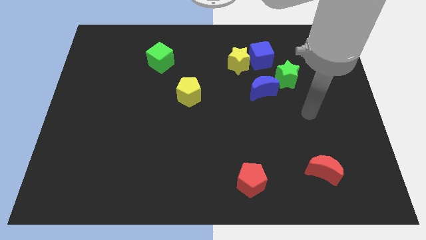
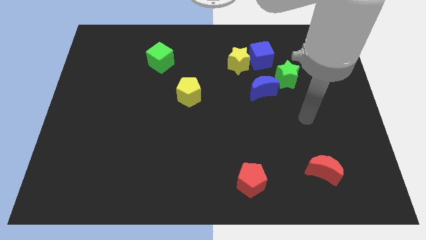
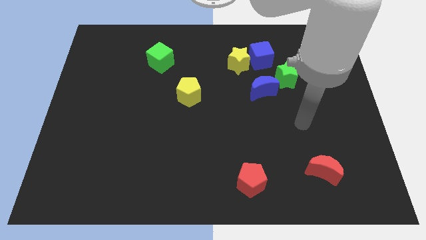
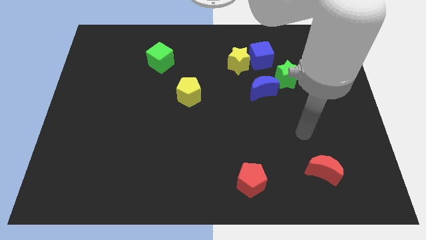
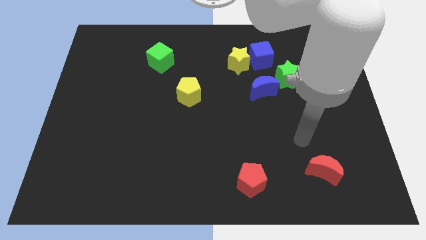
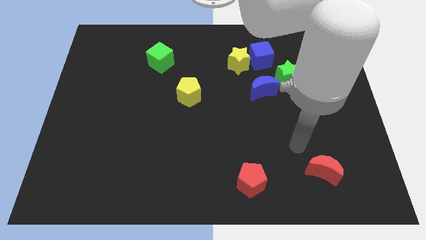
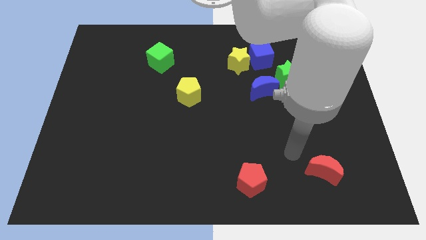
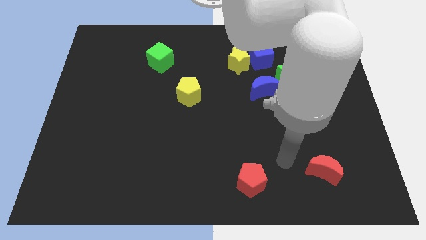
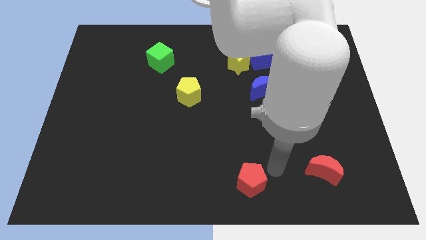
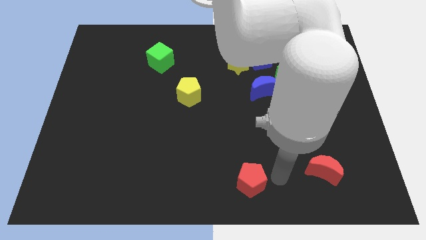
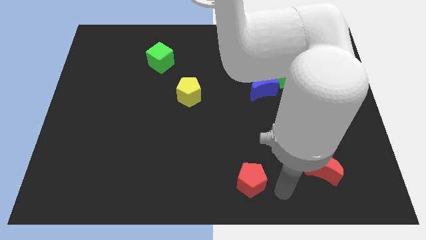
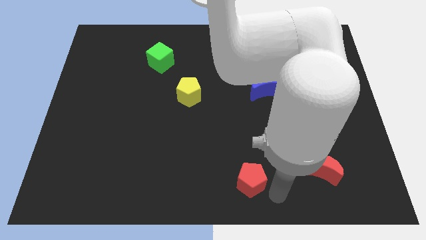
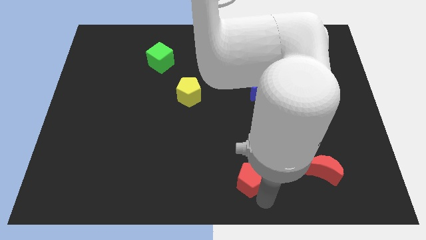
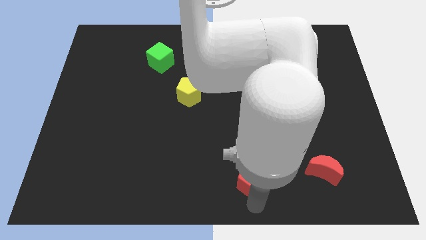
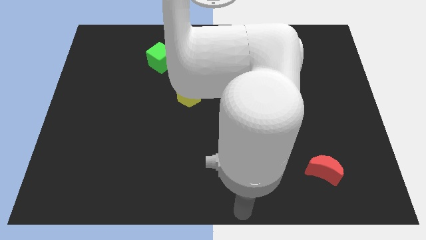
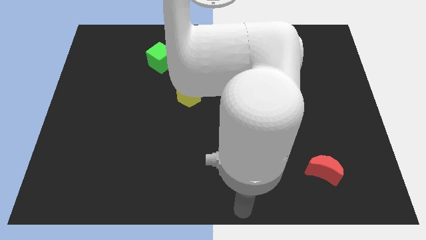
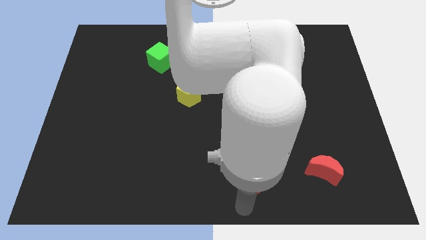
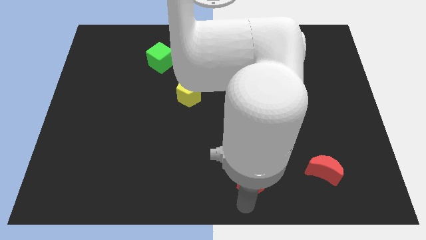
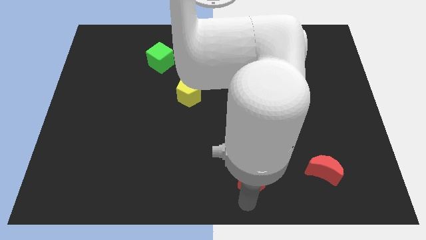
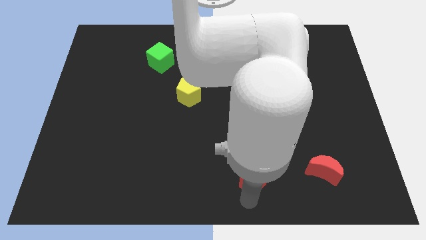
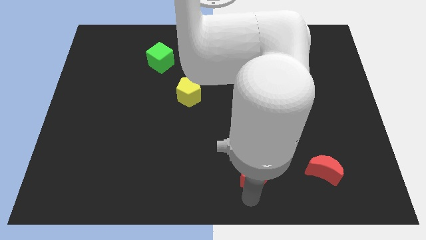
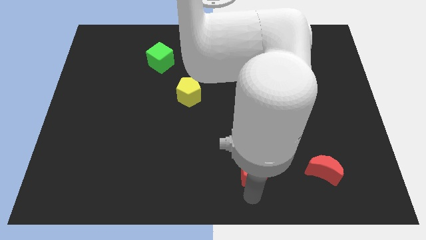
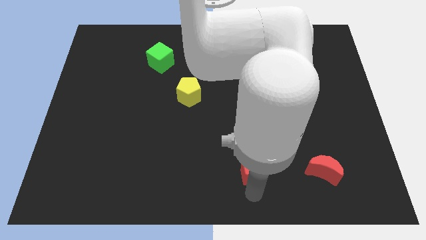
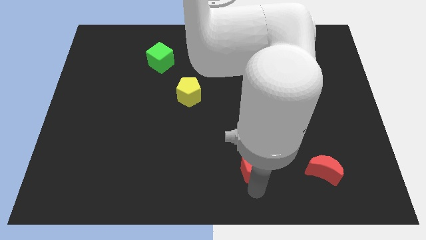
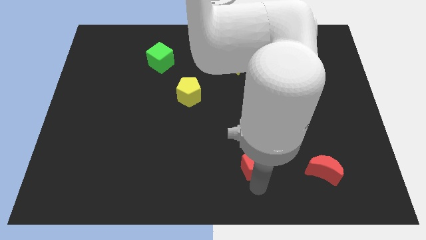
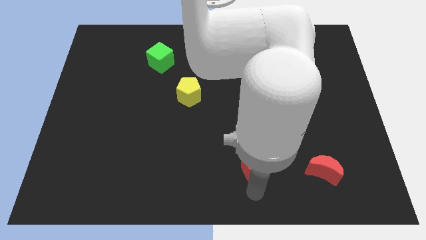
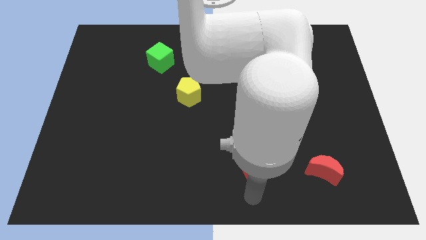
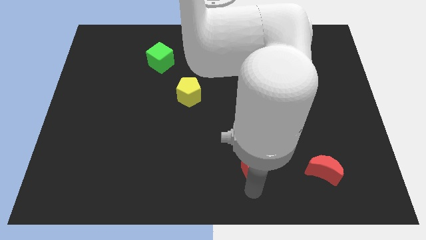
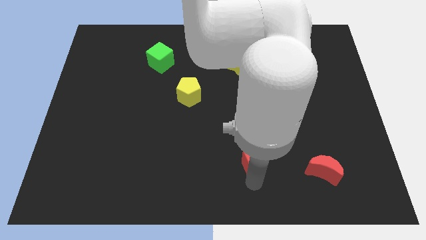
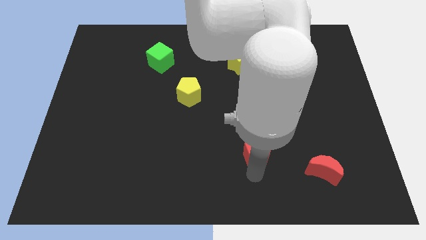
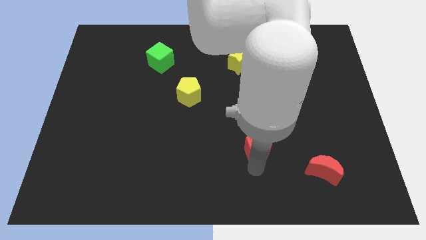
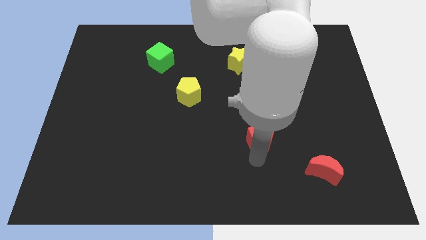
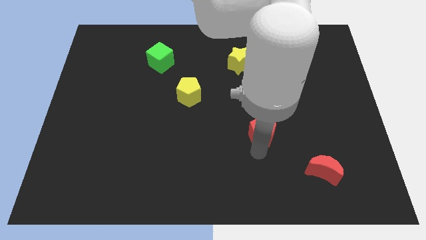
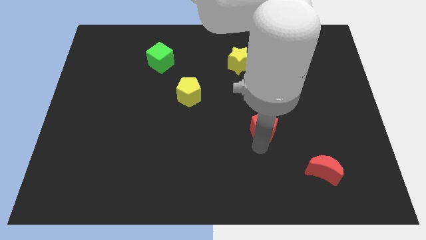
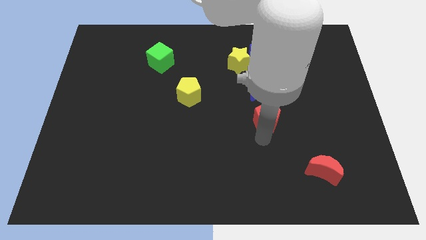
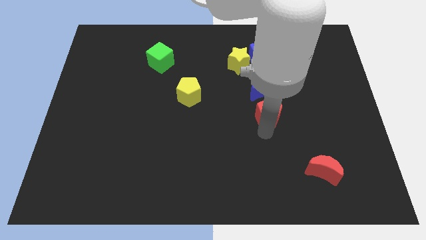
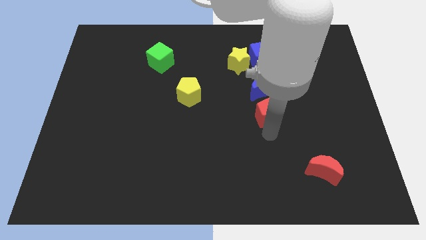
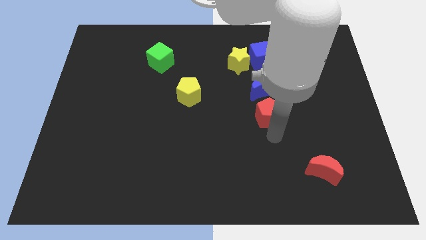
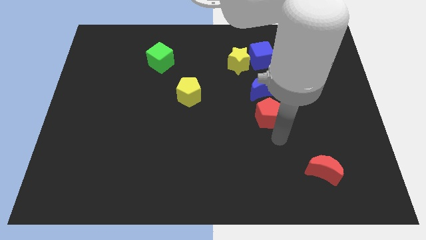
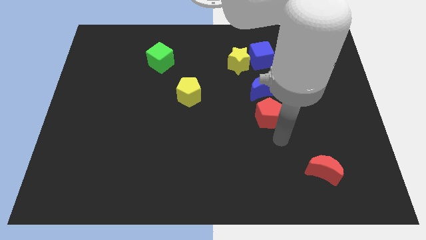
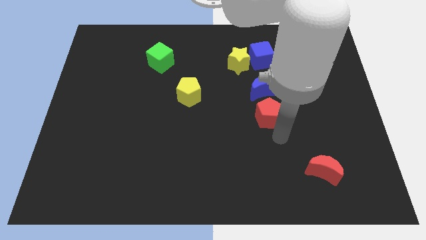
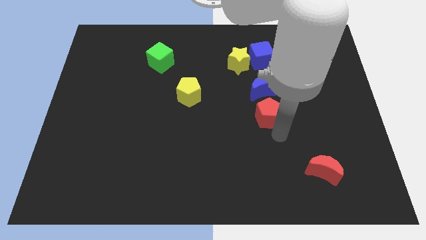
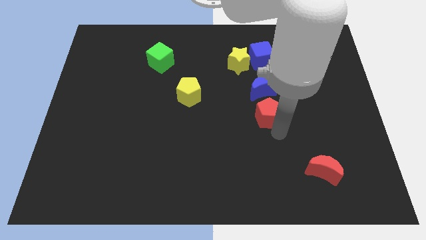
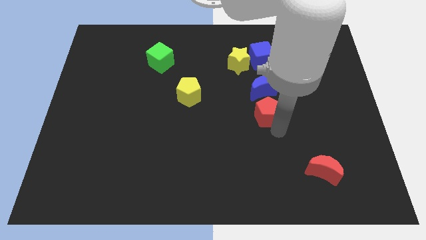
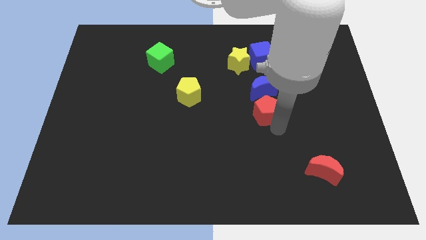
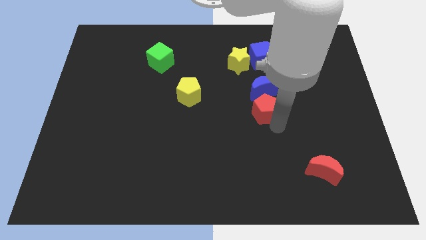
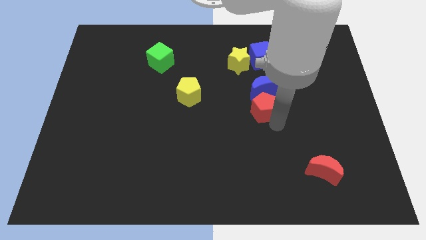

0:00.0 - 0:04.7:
push the red pentagon to the bottom left side of the green star

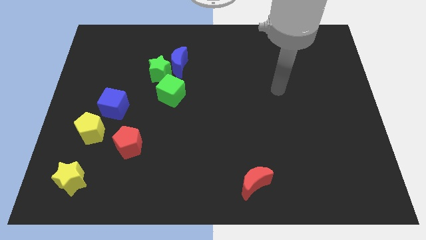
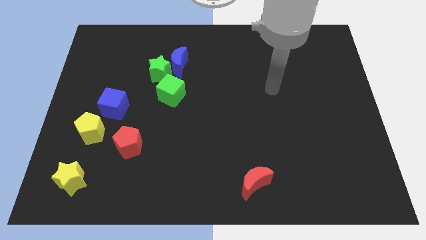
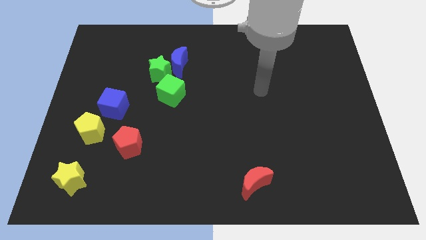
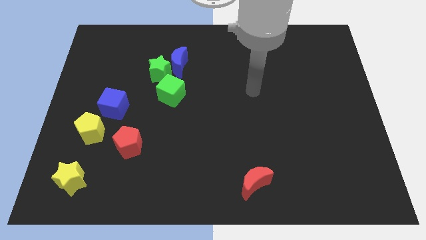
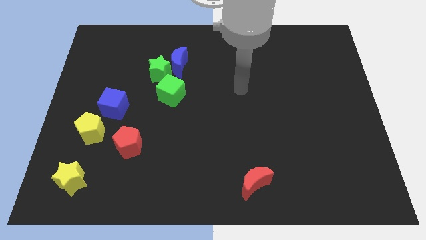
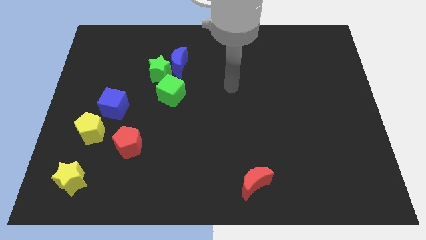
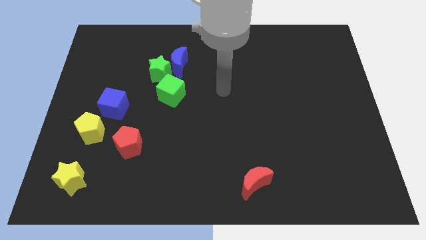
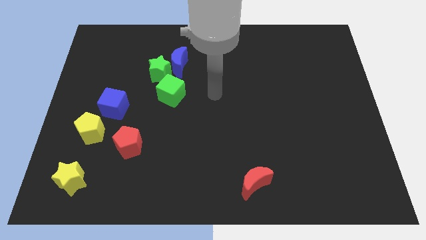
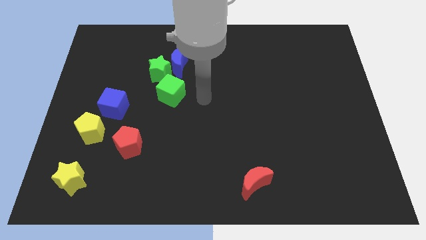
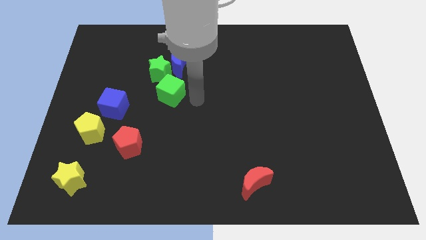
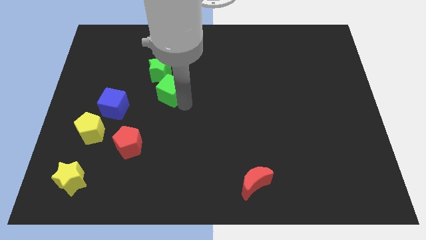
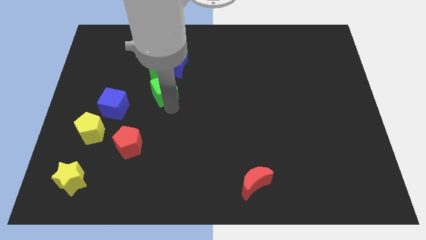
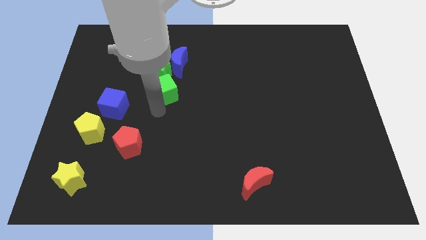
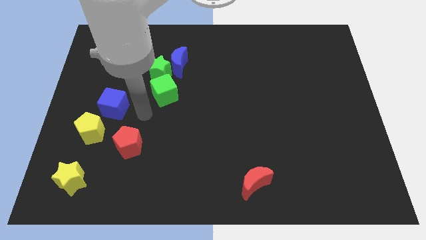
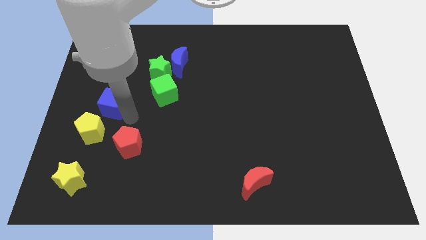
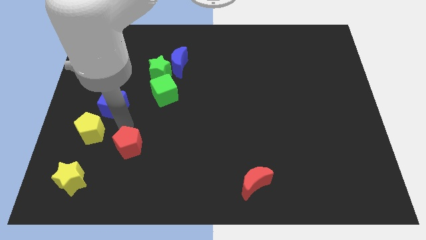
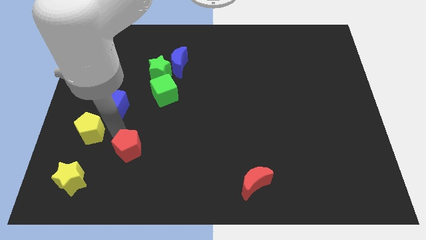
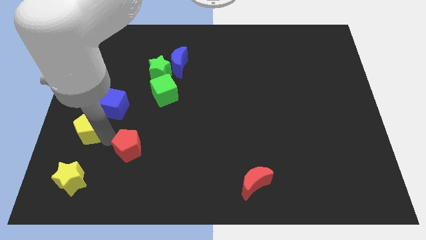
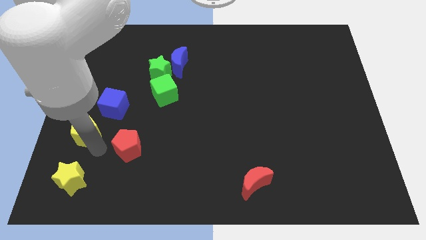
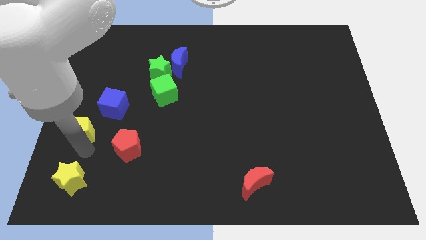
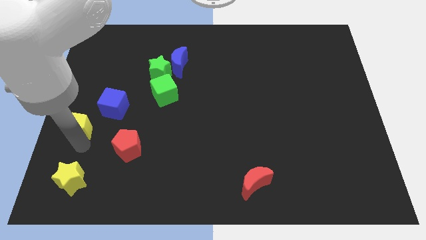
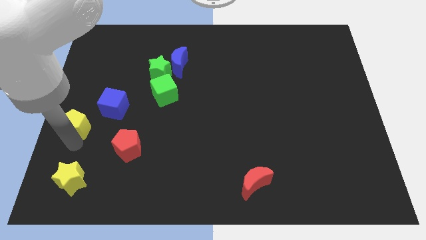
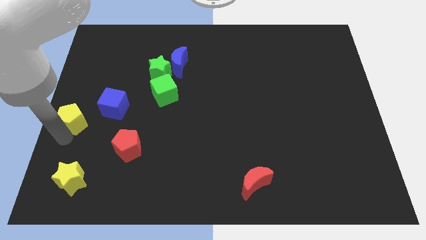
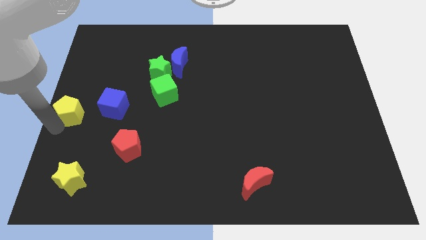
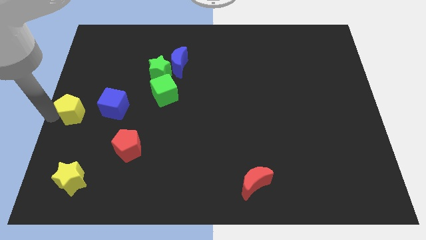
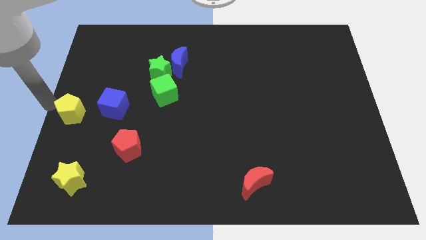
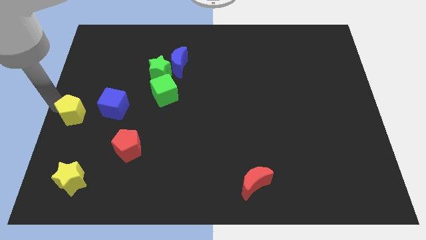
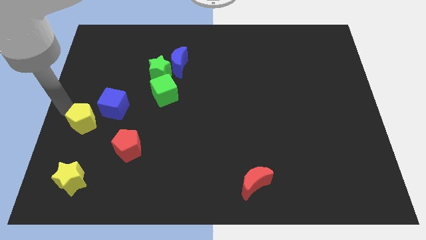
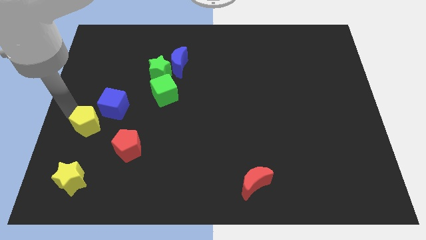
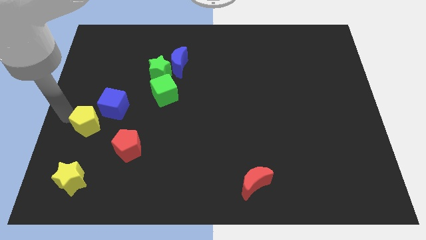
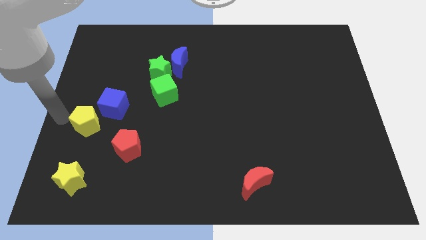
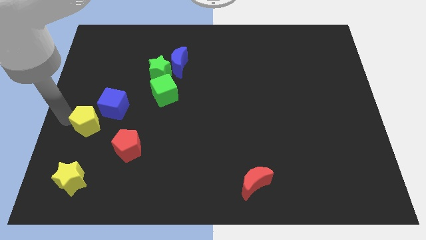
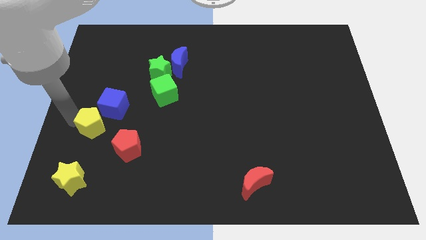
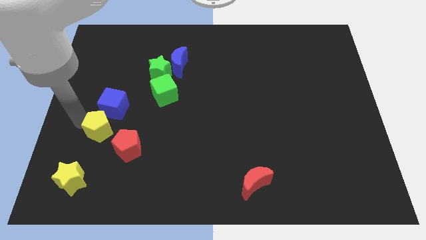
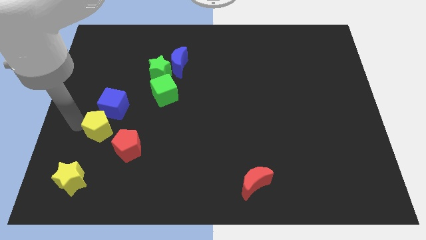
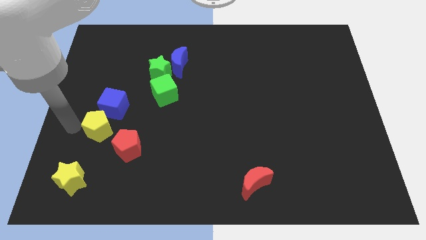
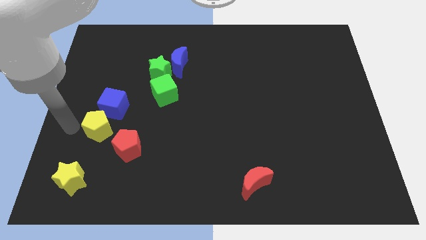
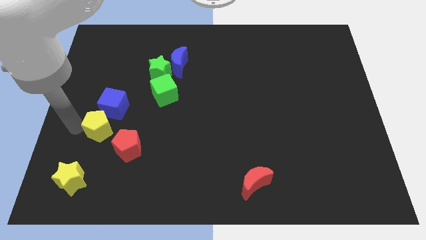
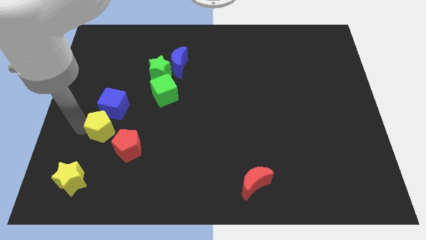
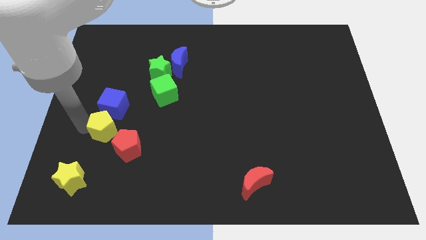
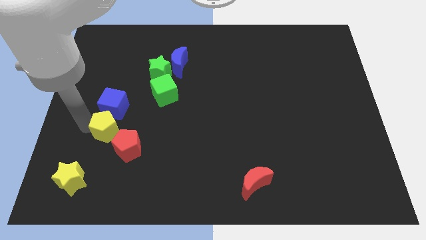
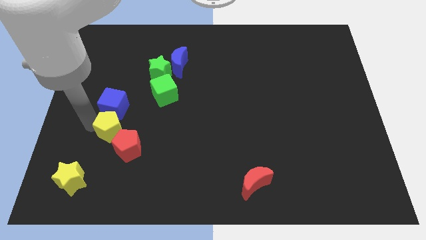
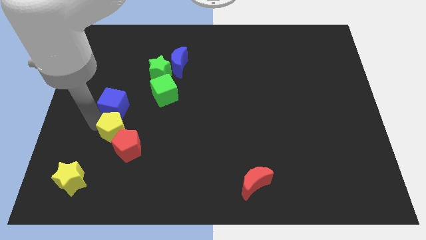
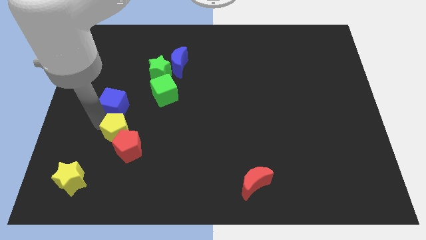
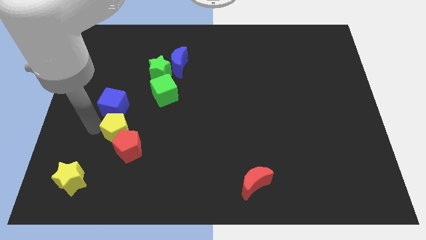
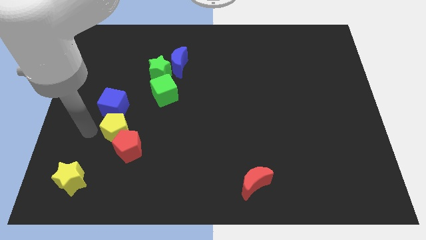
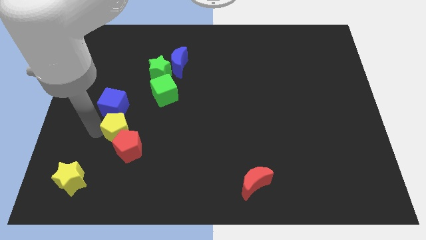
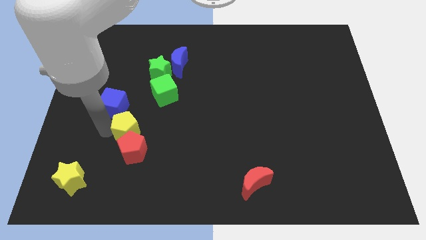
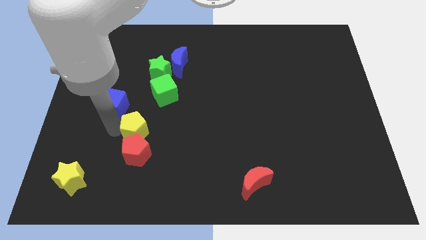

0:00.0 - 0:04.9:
move the yellow pentagon diagonally up and to the right of the red pentagon
